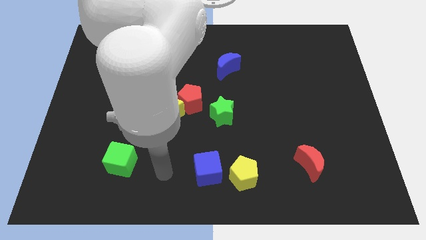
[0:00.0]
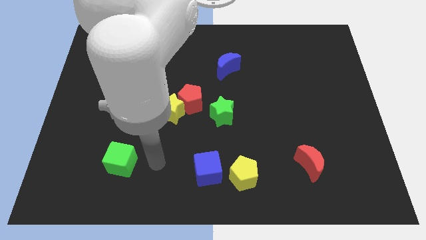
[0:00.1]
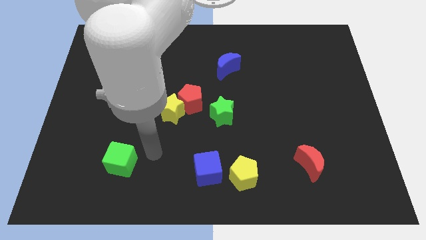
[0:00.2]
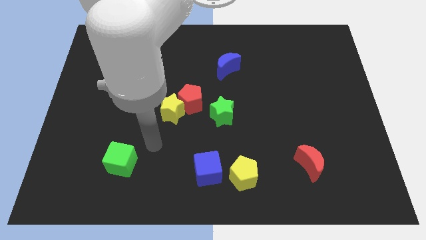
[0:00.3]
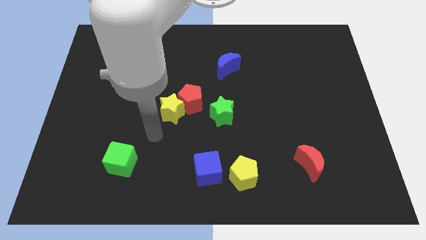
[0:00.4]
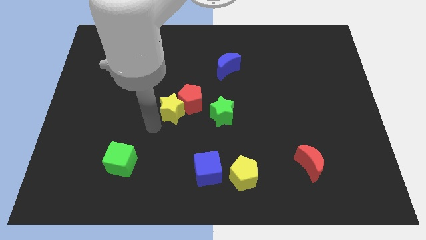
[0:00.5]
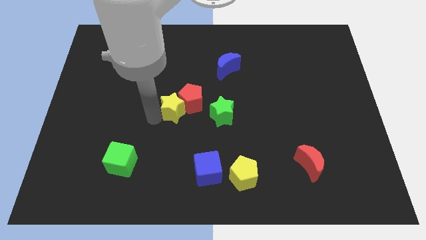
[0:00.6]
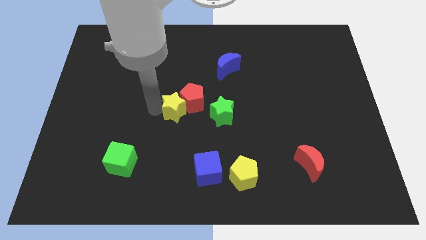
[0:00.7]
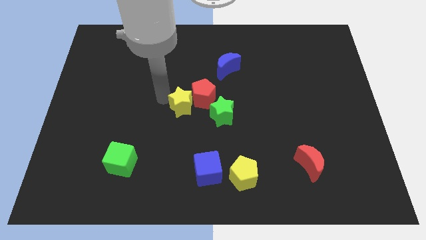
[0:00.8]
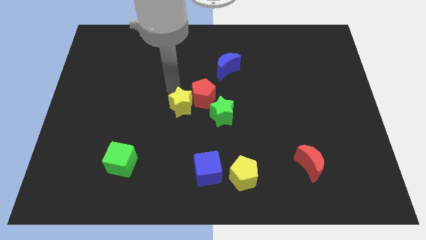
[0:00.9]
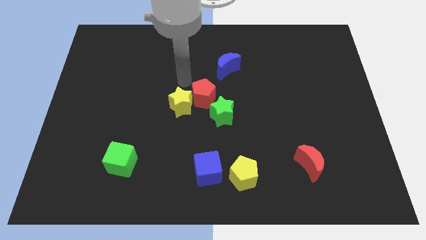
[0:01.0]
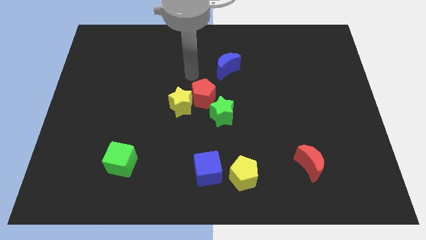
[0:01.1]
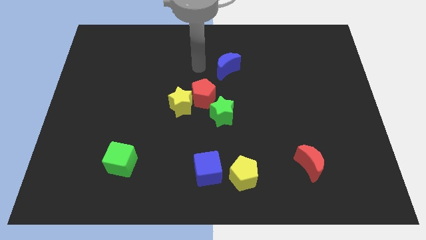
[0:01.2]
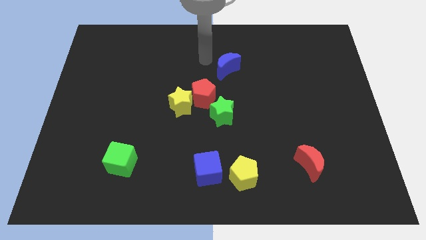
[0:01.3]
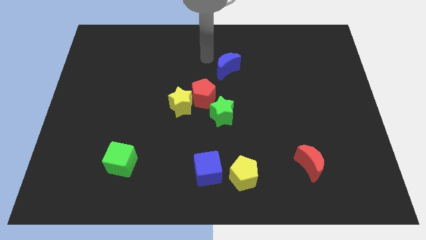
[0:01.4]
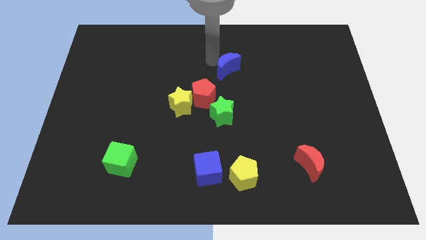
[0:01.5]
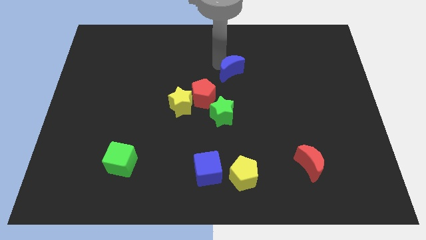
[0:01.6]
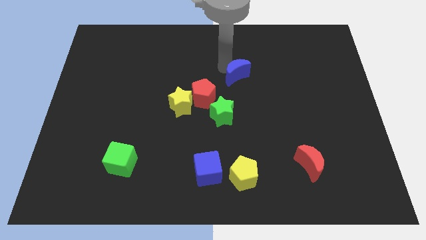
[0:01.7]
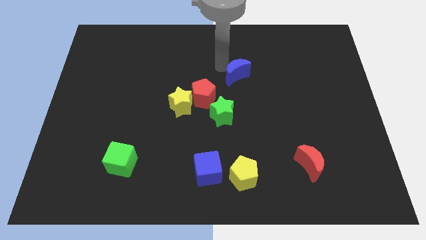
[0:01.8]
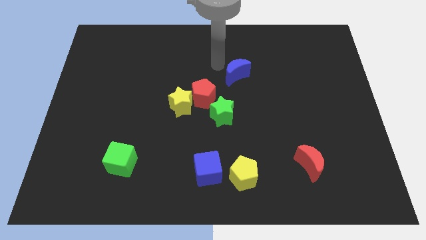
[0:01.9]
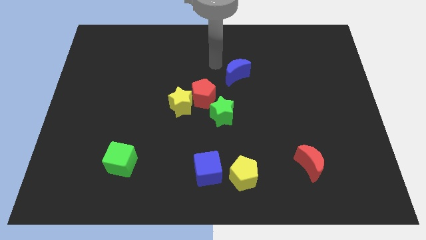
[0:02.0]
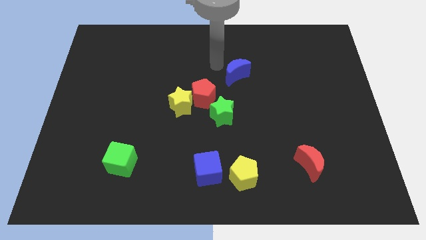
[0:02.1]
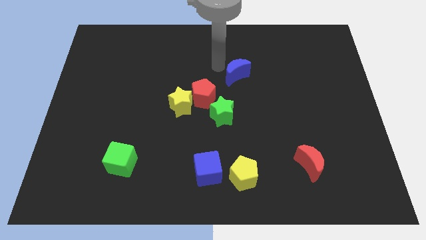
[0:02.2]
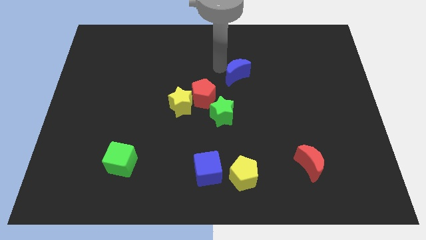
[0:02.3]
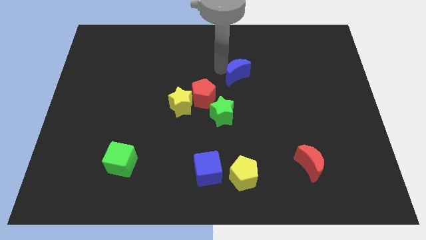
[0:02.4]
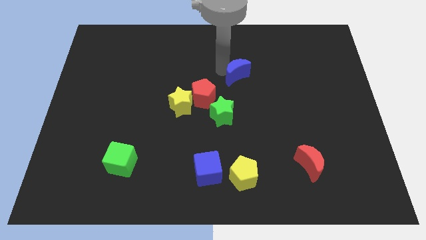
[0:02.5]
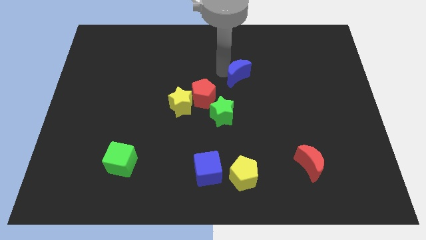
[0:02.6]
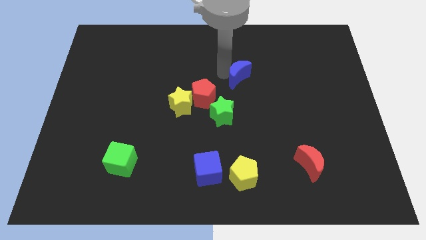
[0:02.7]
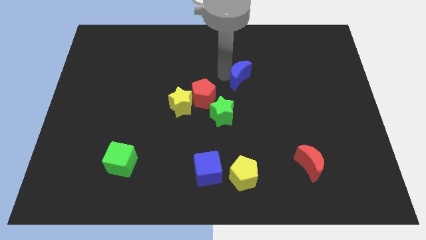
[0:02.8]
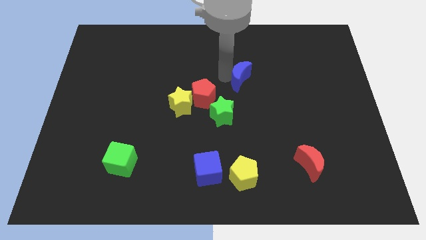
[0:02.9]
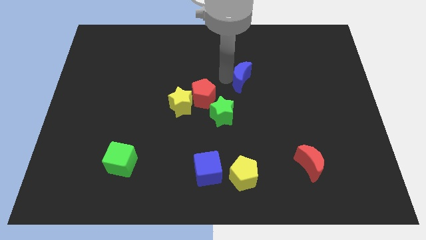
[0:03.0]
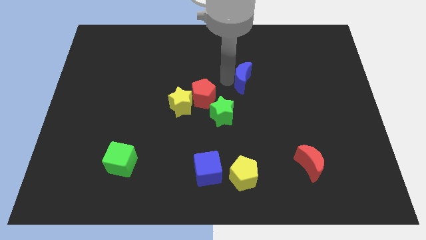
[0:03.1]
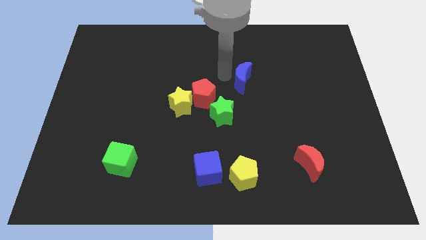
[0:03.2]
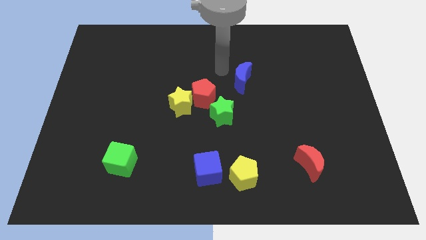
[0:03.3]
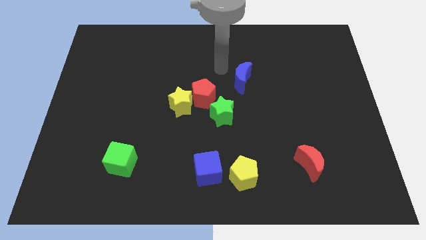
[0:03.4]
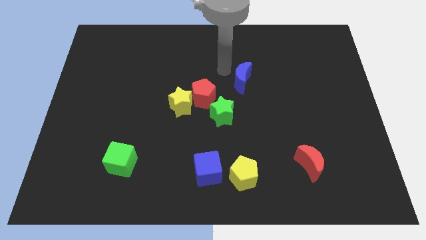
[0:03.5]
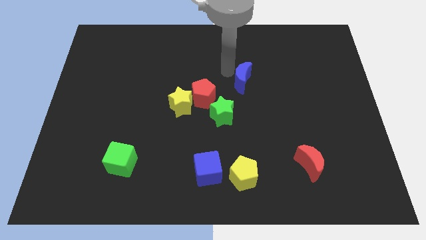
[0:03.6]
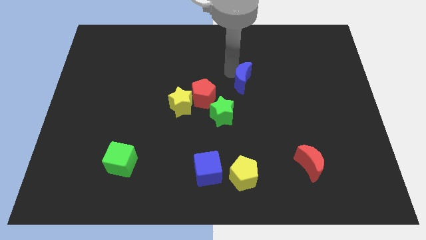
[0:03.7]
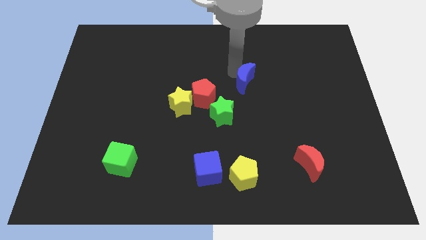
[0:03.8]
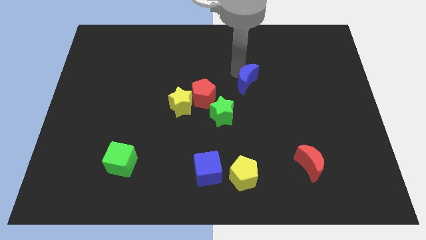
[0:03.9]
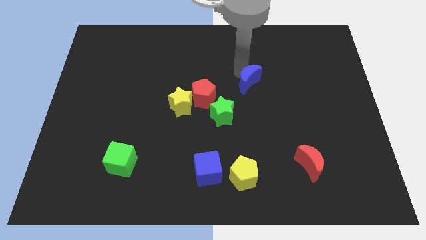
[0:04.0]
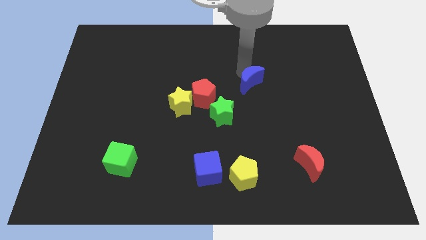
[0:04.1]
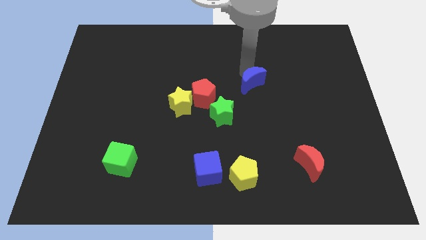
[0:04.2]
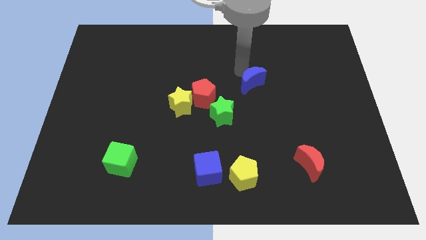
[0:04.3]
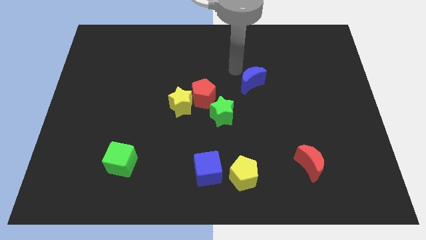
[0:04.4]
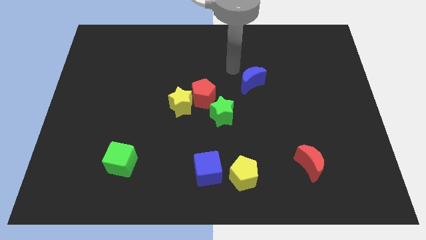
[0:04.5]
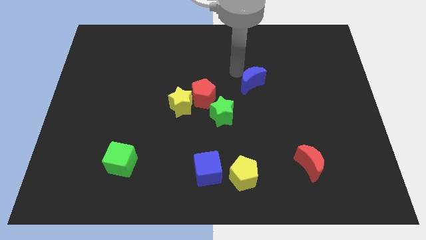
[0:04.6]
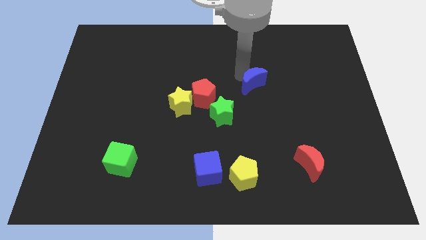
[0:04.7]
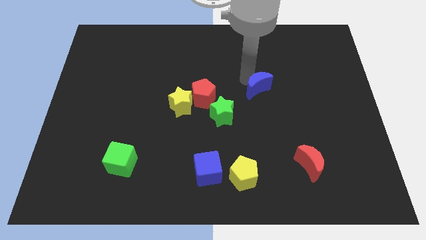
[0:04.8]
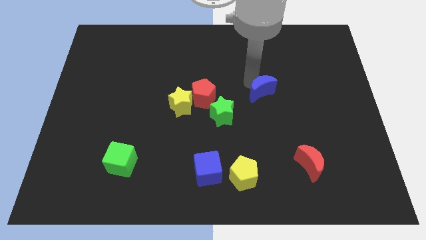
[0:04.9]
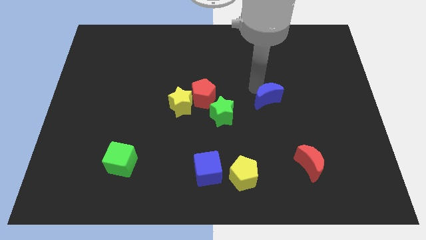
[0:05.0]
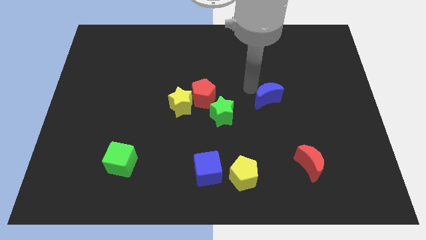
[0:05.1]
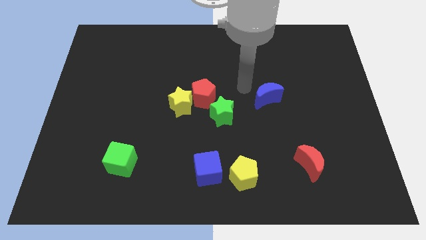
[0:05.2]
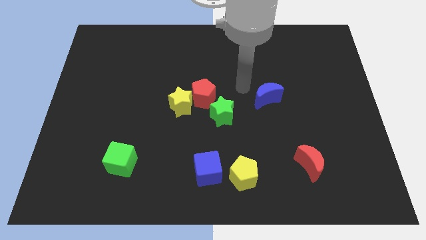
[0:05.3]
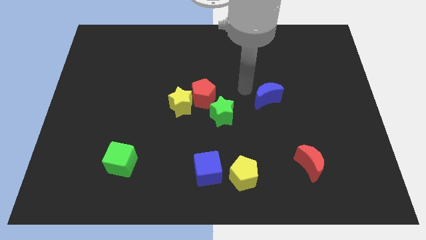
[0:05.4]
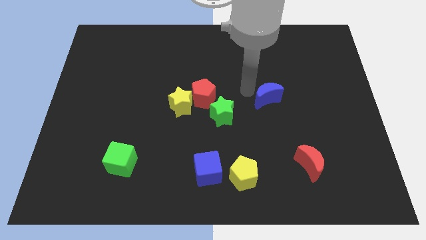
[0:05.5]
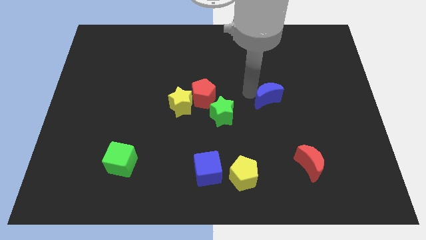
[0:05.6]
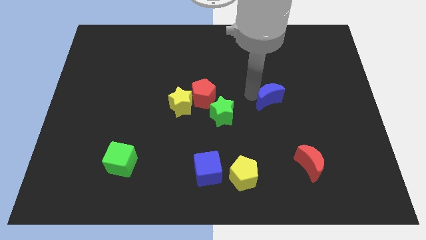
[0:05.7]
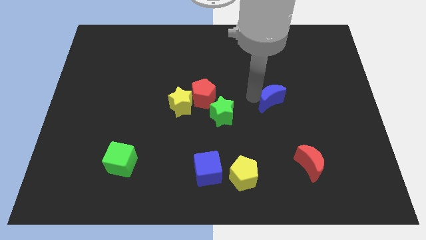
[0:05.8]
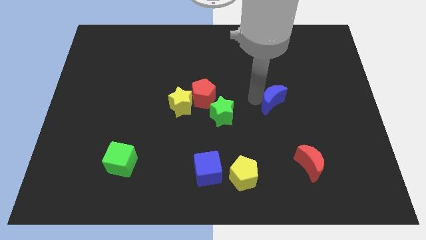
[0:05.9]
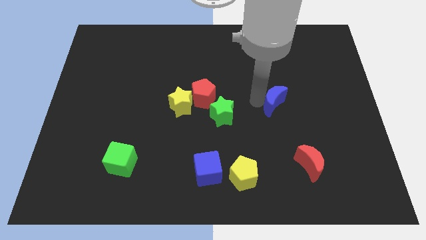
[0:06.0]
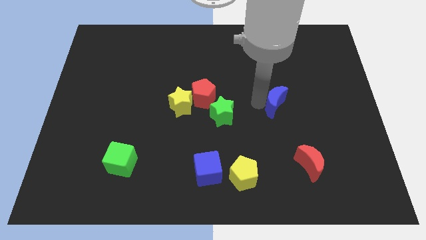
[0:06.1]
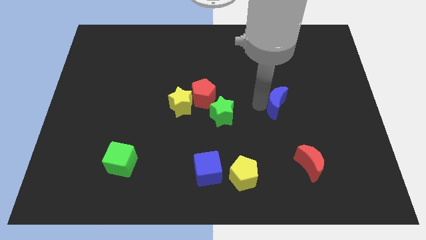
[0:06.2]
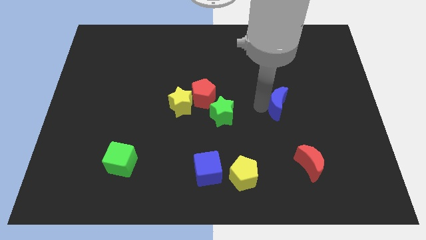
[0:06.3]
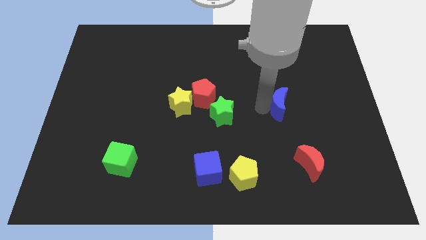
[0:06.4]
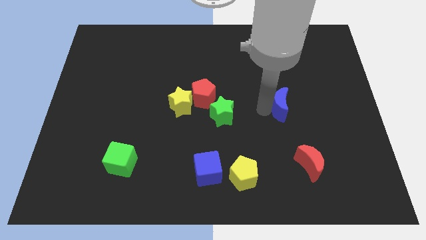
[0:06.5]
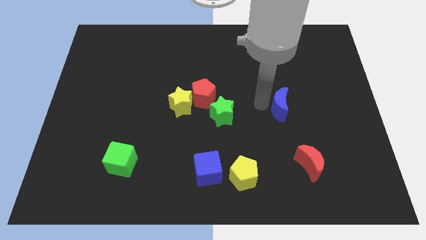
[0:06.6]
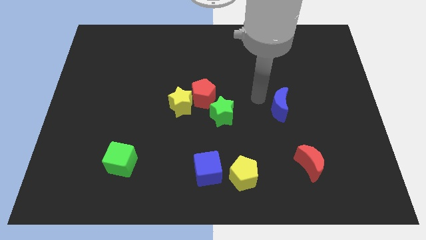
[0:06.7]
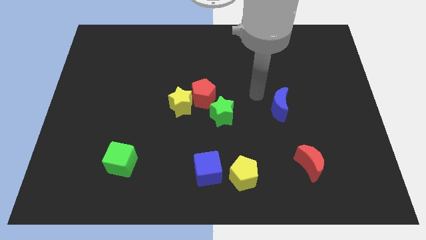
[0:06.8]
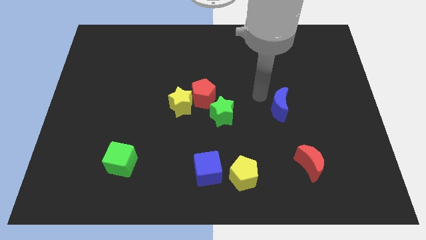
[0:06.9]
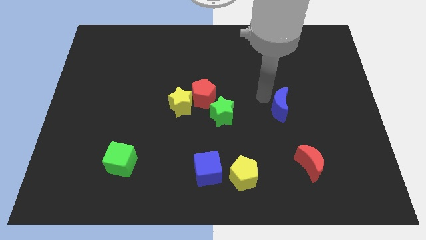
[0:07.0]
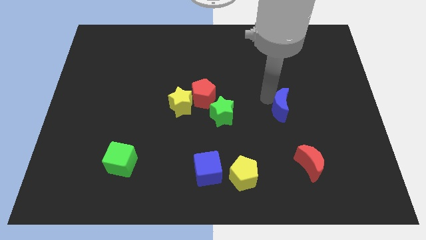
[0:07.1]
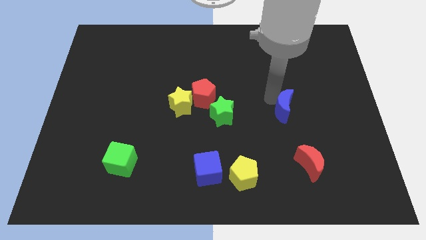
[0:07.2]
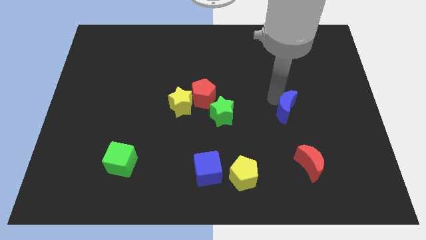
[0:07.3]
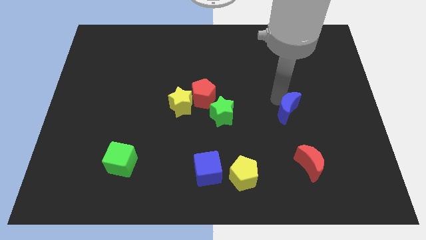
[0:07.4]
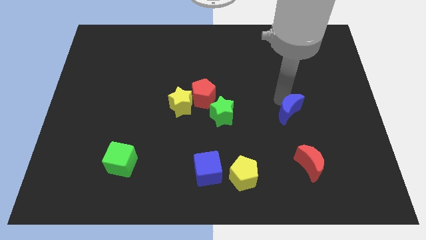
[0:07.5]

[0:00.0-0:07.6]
move the blue moon down and then right
